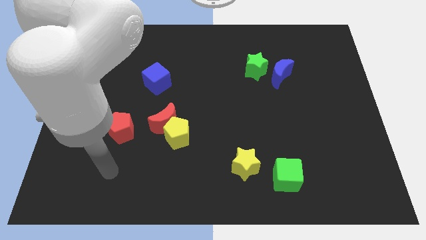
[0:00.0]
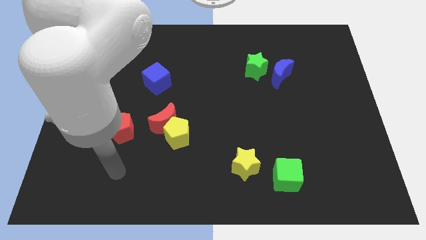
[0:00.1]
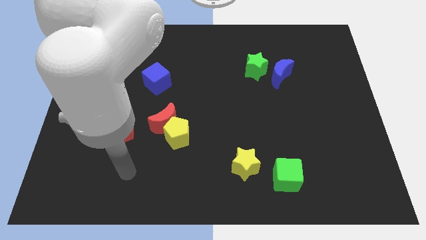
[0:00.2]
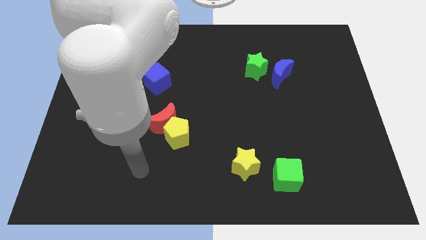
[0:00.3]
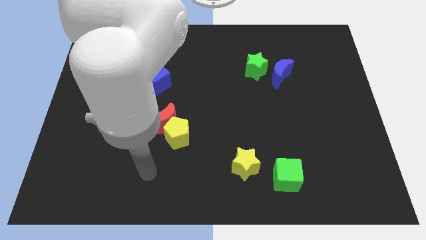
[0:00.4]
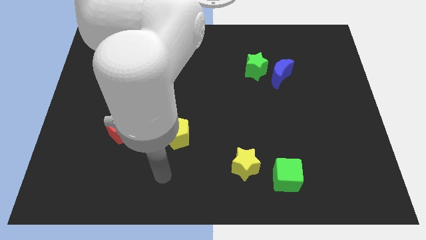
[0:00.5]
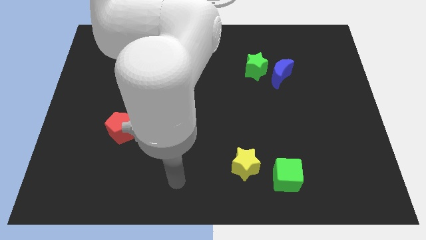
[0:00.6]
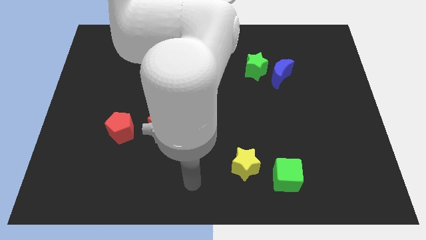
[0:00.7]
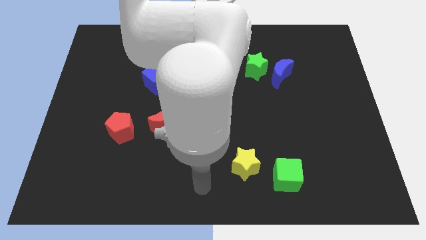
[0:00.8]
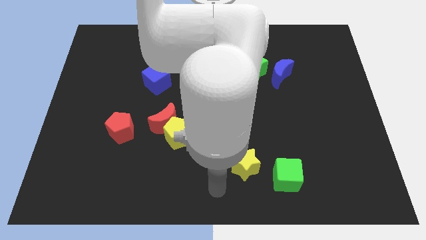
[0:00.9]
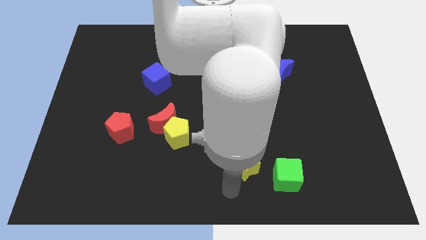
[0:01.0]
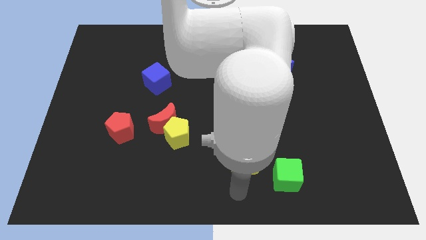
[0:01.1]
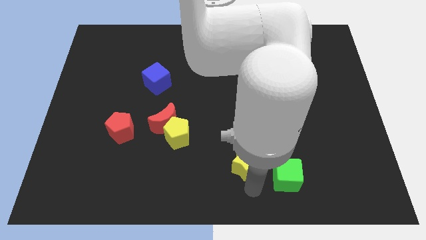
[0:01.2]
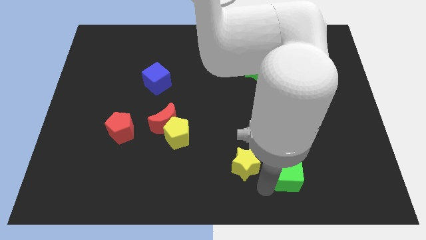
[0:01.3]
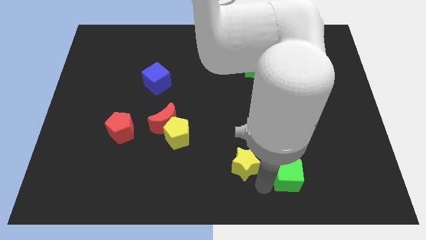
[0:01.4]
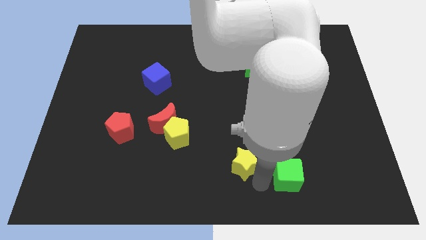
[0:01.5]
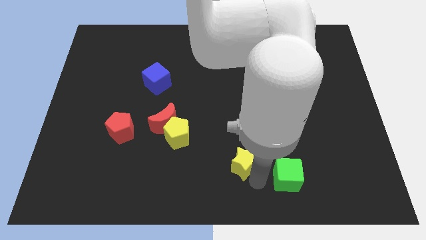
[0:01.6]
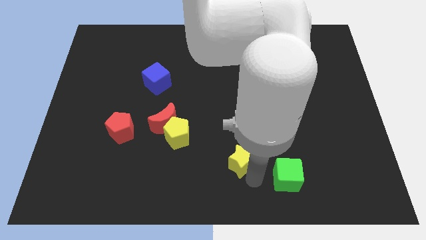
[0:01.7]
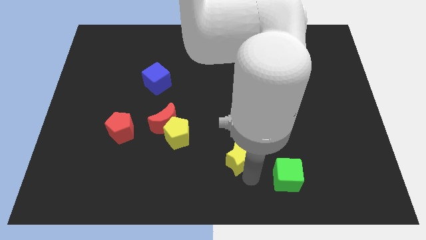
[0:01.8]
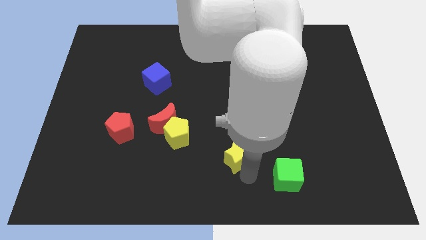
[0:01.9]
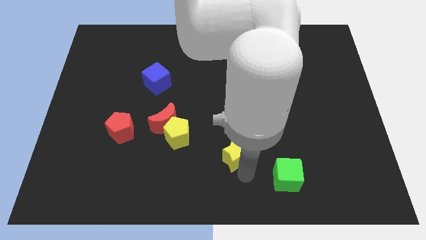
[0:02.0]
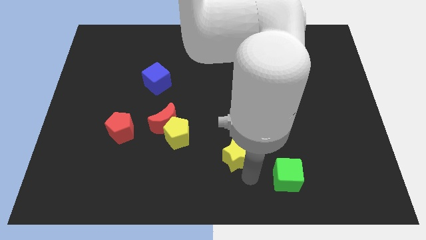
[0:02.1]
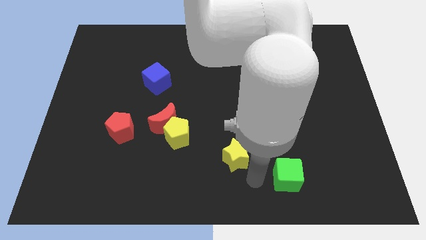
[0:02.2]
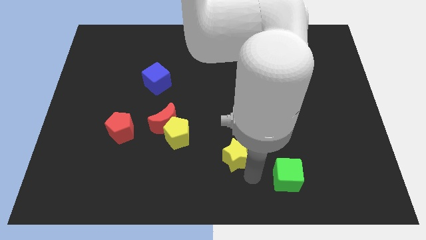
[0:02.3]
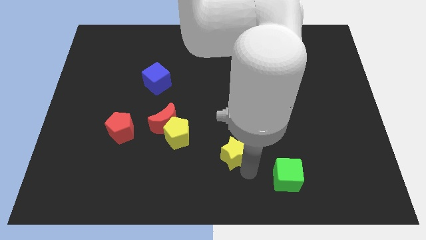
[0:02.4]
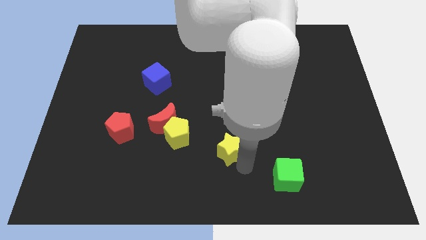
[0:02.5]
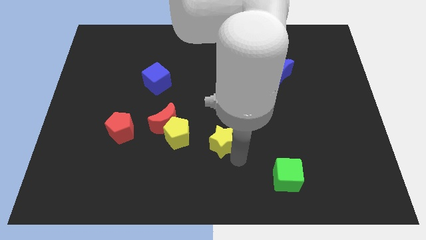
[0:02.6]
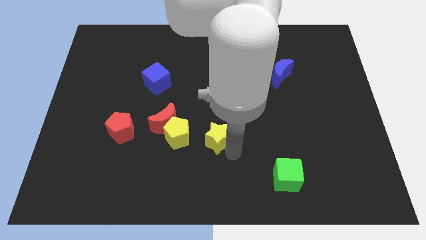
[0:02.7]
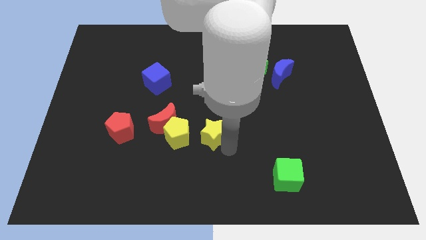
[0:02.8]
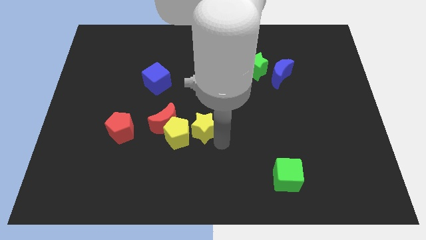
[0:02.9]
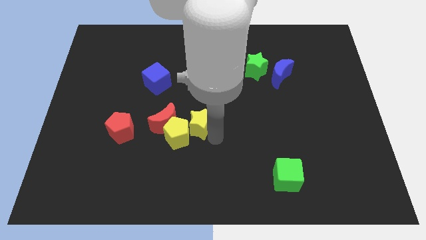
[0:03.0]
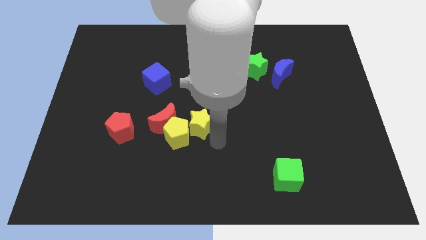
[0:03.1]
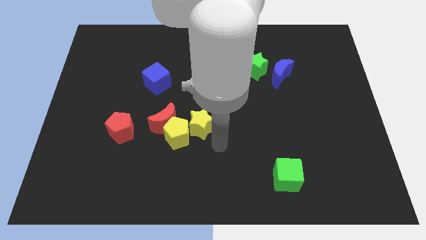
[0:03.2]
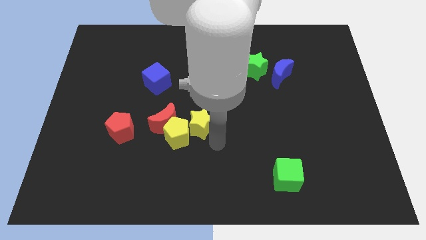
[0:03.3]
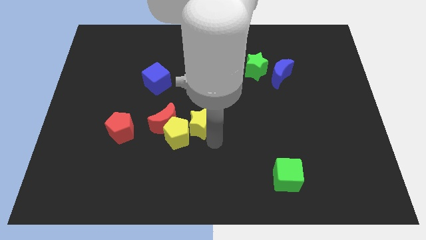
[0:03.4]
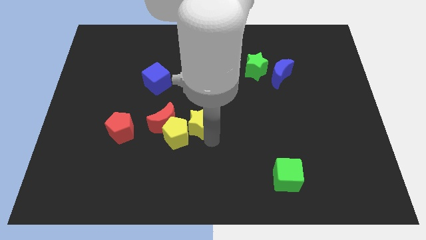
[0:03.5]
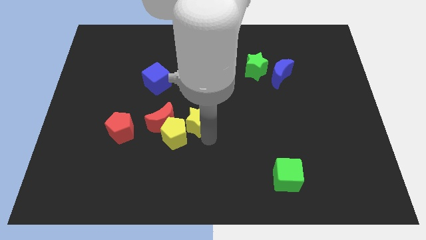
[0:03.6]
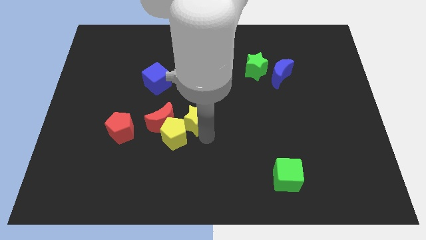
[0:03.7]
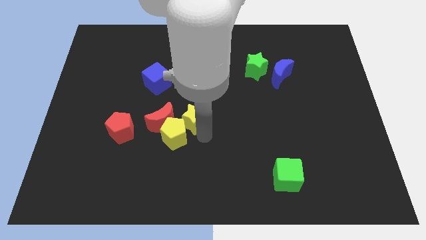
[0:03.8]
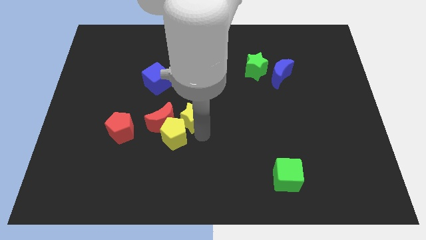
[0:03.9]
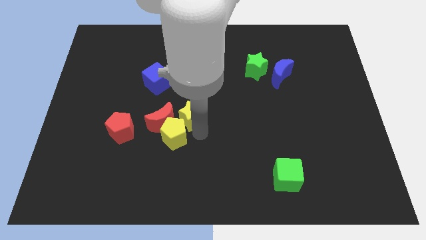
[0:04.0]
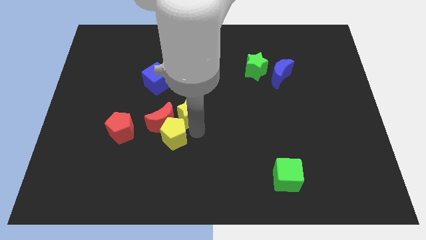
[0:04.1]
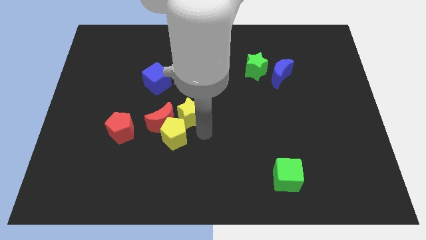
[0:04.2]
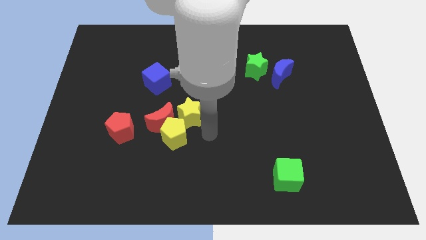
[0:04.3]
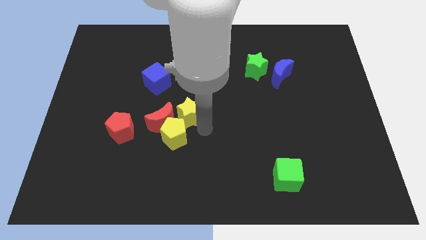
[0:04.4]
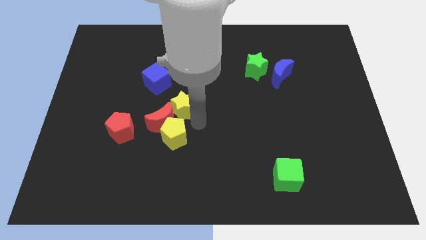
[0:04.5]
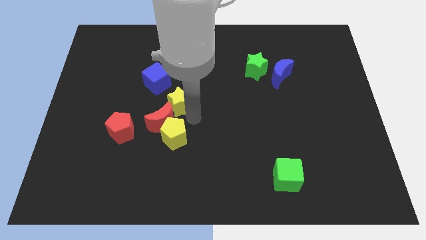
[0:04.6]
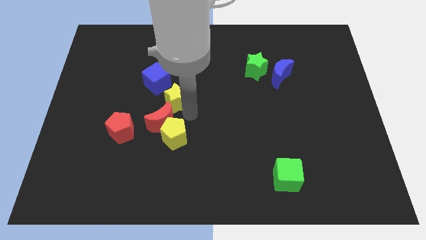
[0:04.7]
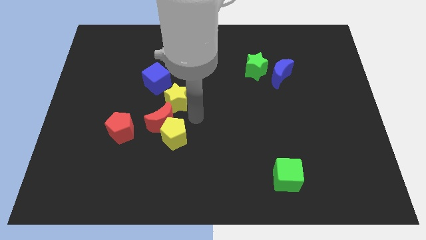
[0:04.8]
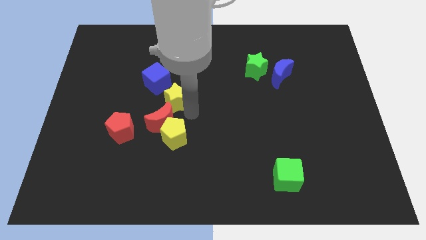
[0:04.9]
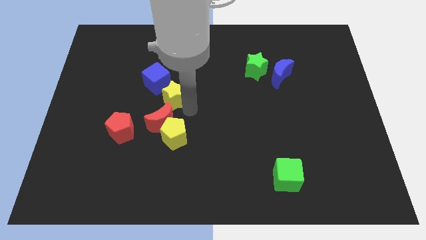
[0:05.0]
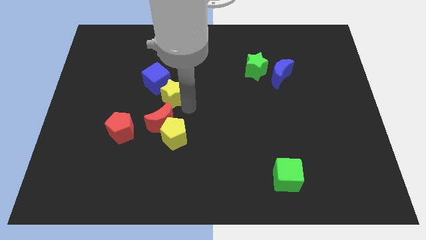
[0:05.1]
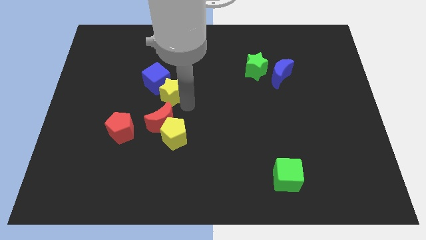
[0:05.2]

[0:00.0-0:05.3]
slide the yellow star towards the blue cube

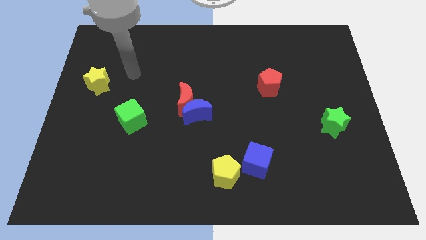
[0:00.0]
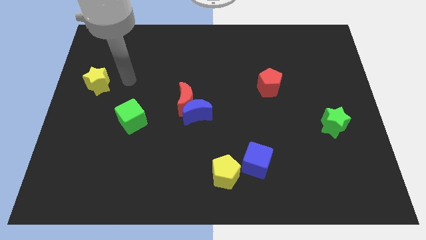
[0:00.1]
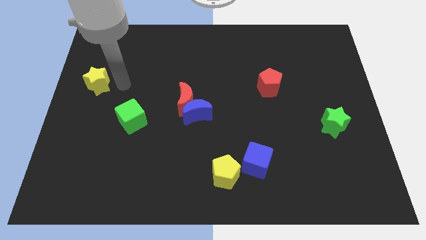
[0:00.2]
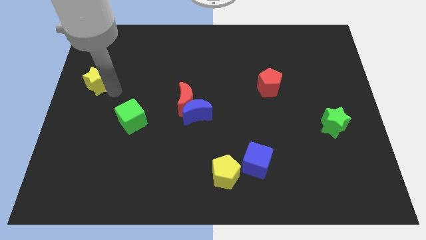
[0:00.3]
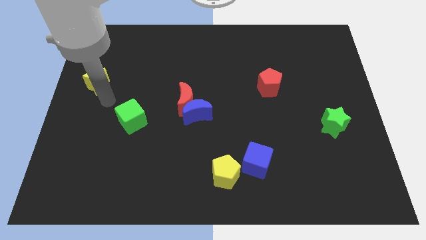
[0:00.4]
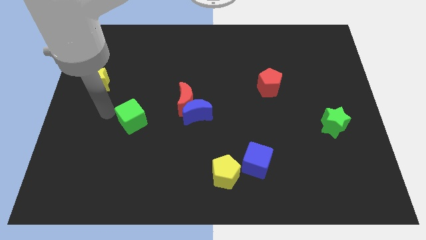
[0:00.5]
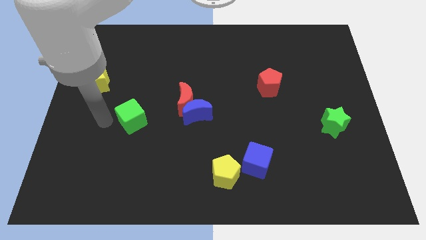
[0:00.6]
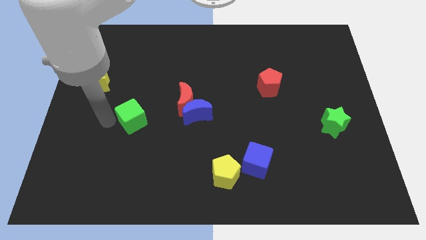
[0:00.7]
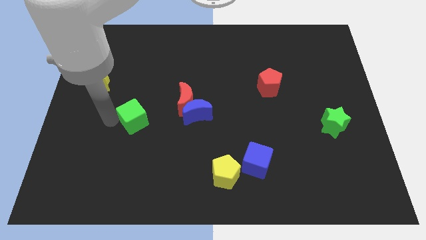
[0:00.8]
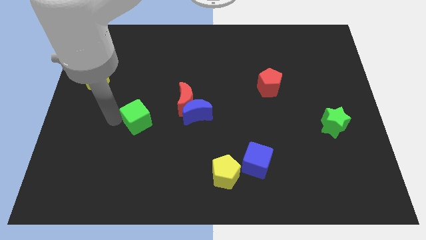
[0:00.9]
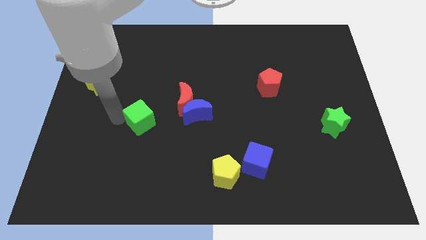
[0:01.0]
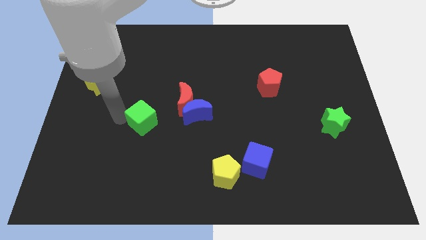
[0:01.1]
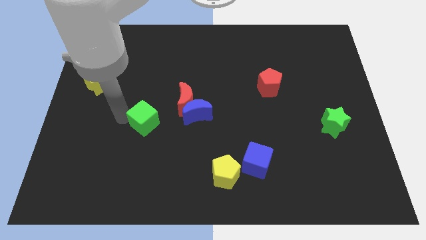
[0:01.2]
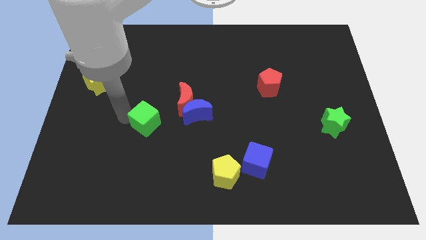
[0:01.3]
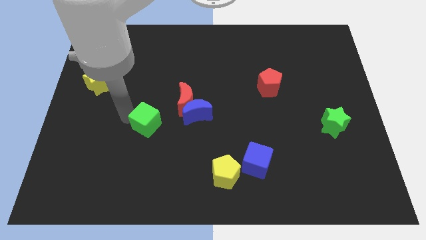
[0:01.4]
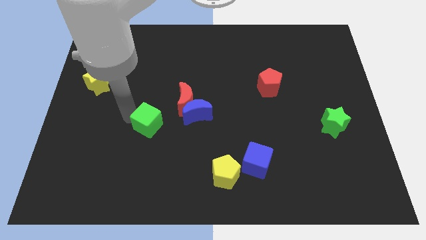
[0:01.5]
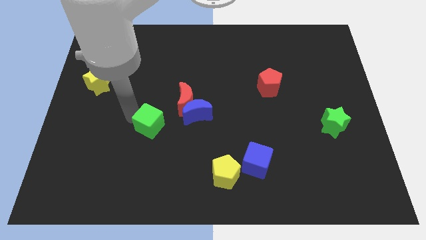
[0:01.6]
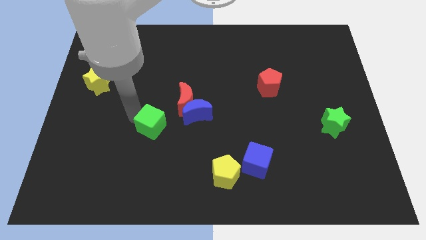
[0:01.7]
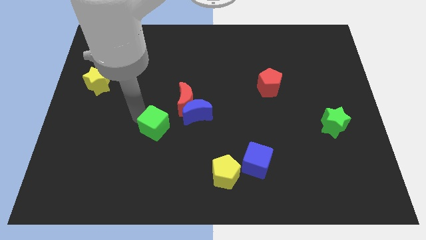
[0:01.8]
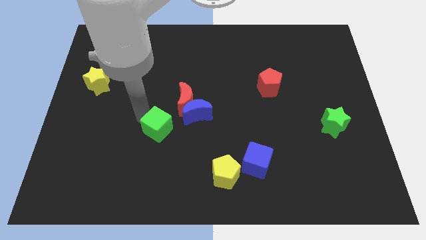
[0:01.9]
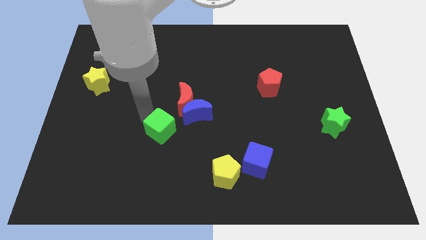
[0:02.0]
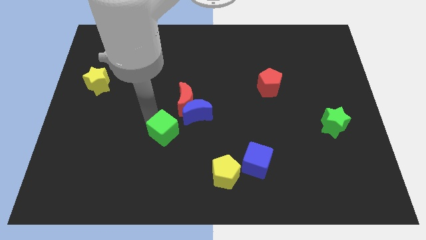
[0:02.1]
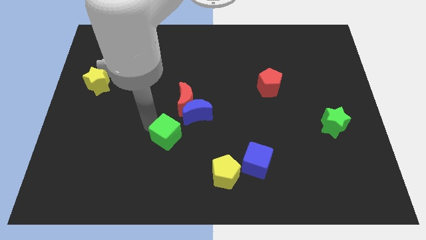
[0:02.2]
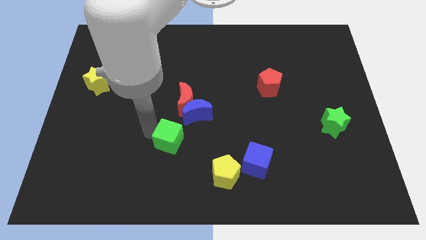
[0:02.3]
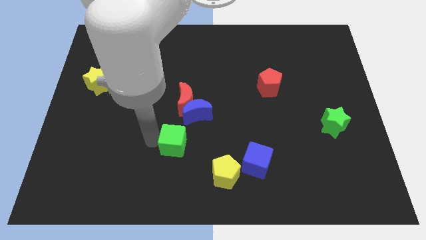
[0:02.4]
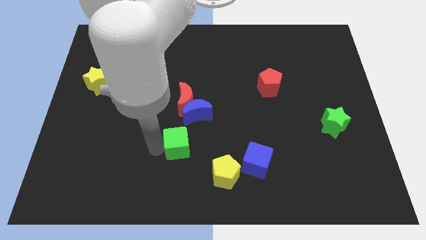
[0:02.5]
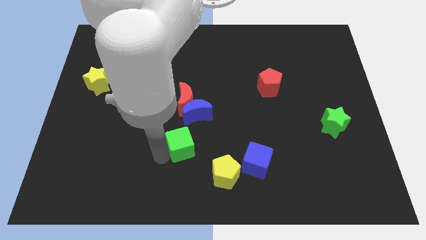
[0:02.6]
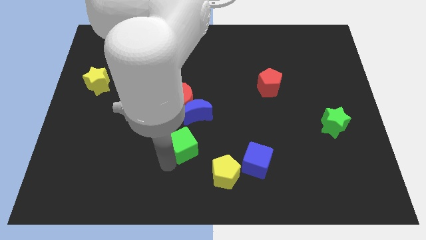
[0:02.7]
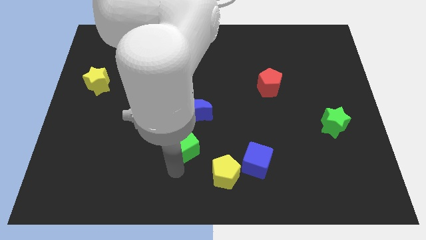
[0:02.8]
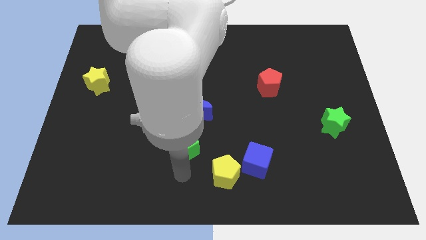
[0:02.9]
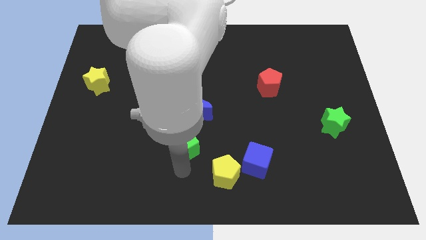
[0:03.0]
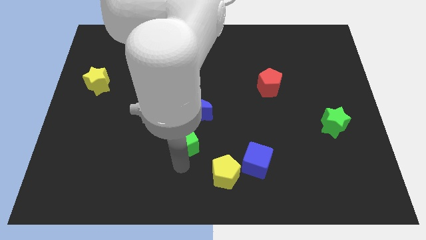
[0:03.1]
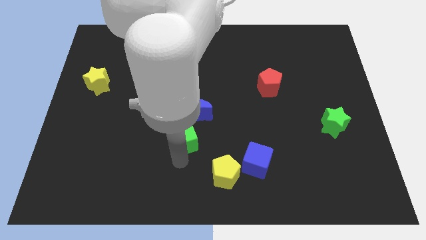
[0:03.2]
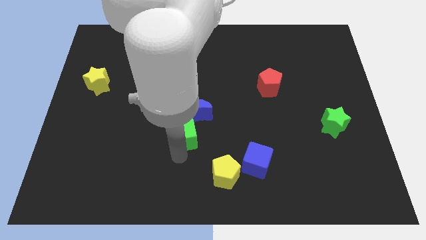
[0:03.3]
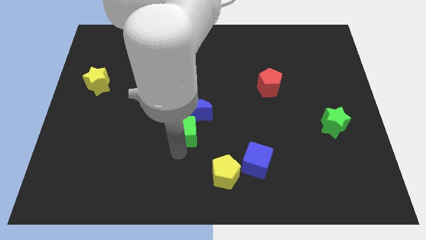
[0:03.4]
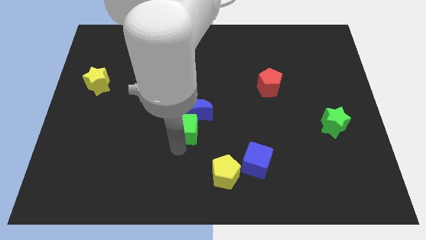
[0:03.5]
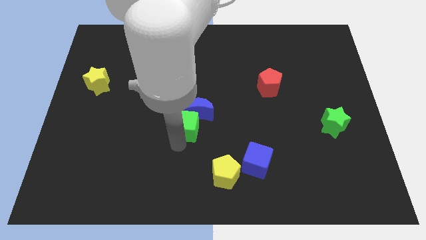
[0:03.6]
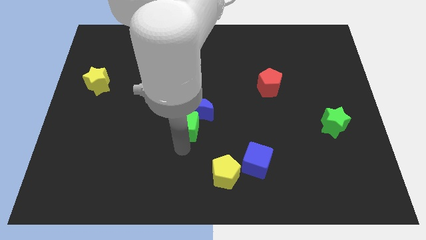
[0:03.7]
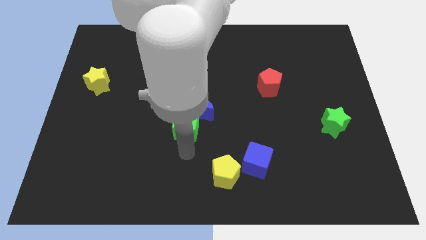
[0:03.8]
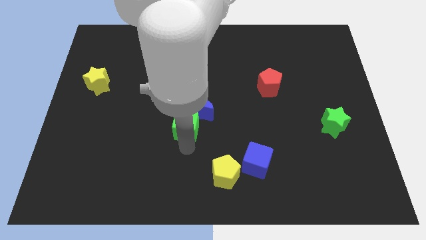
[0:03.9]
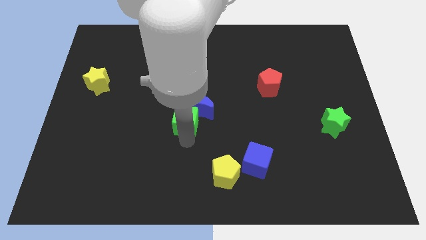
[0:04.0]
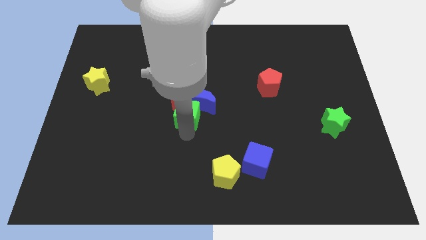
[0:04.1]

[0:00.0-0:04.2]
put the green cube next to the red moon
